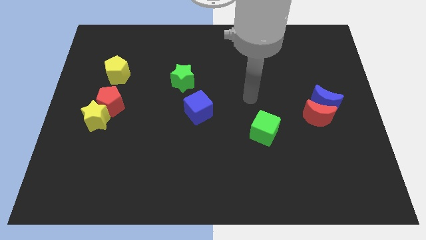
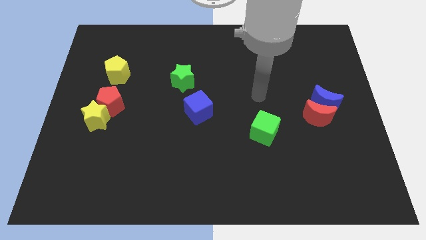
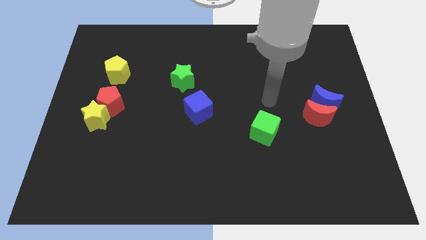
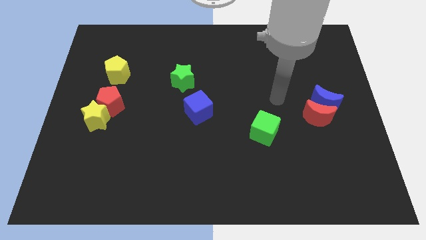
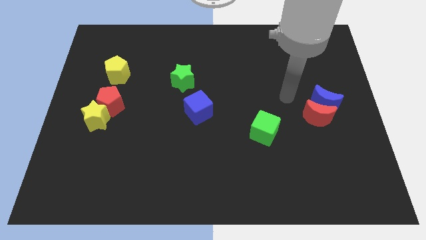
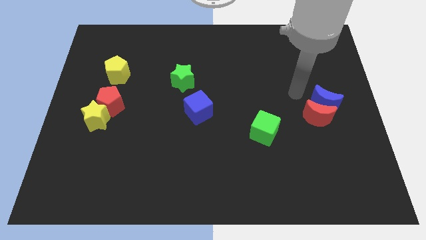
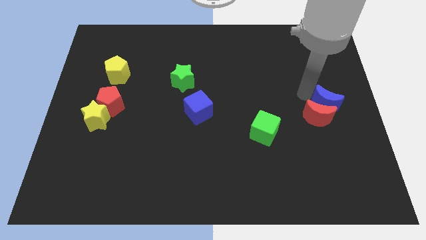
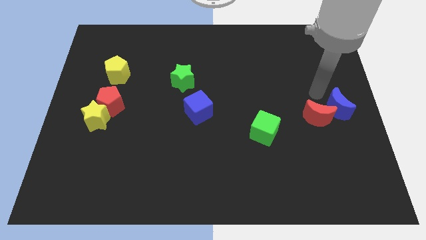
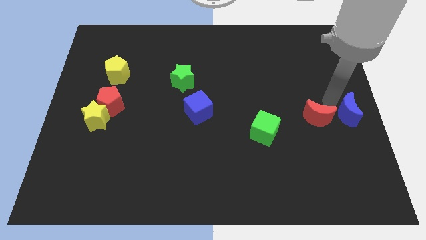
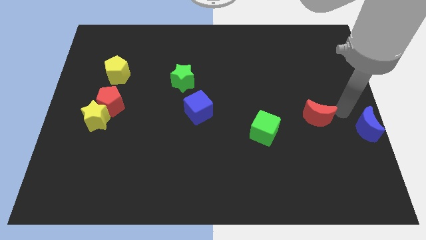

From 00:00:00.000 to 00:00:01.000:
separate the red moon from the blue moon

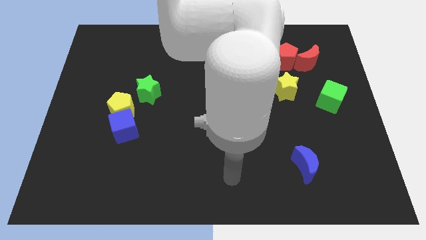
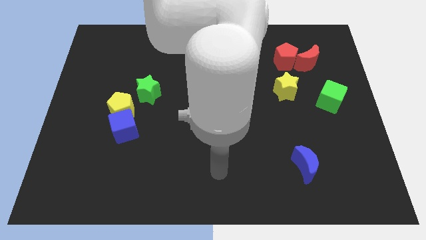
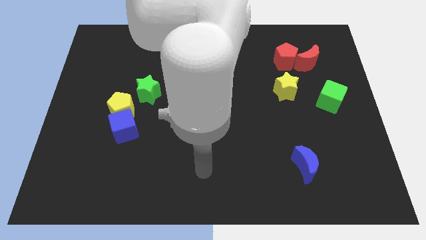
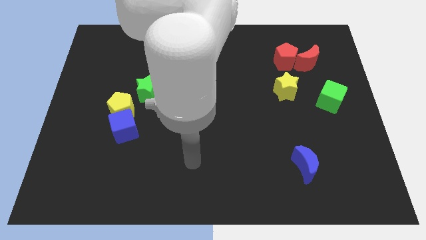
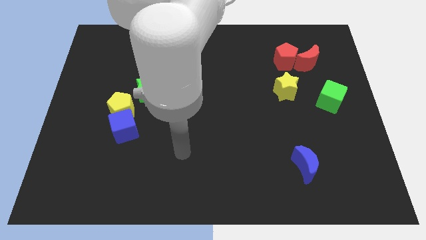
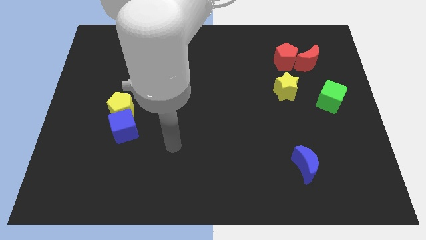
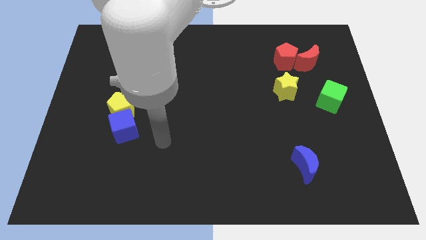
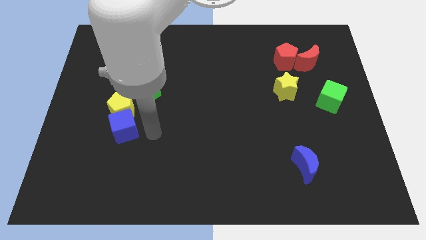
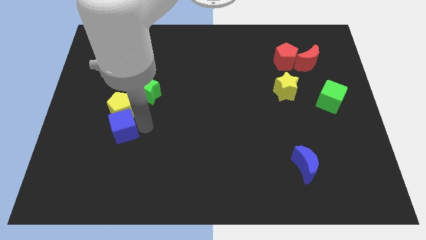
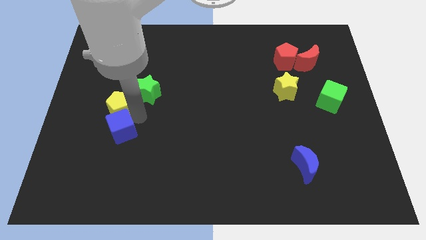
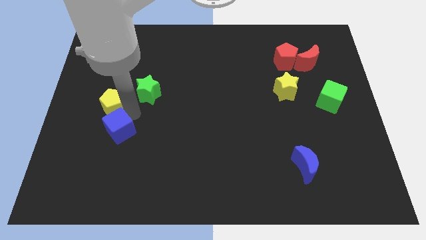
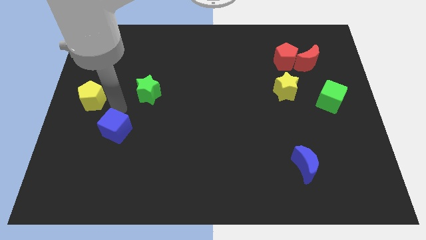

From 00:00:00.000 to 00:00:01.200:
separate the blue cube from the yellow pentagon

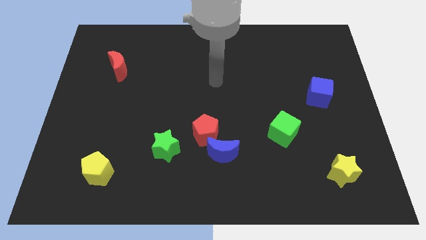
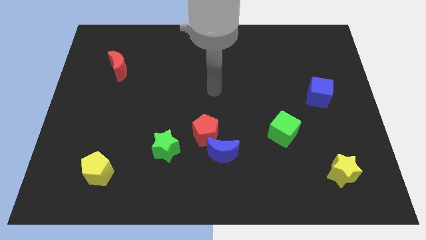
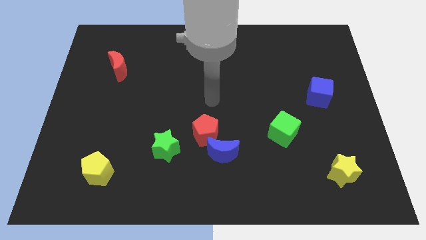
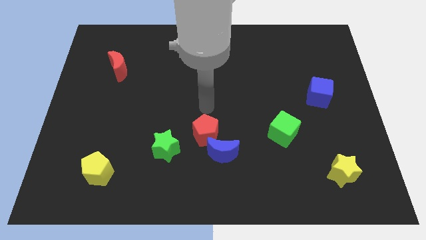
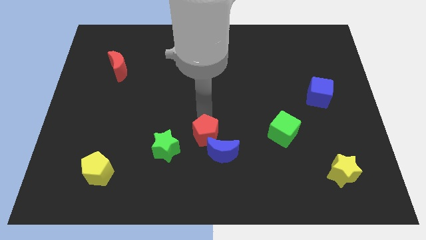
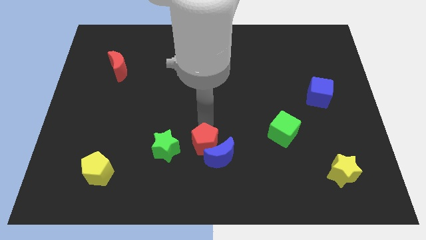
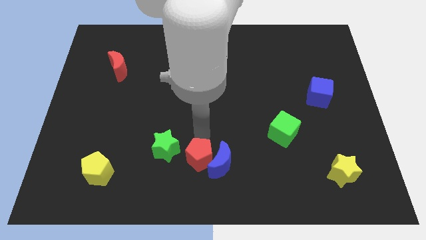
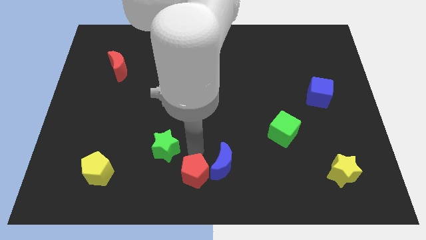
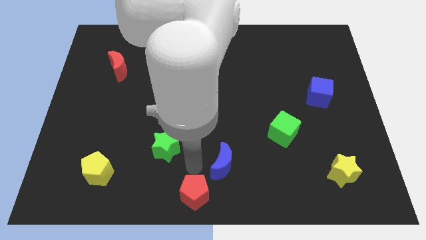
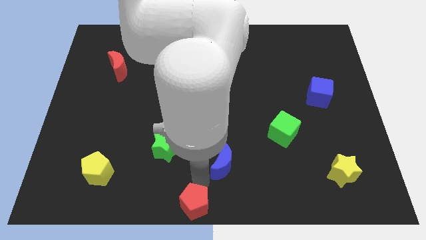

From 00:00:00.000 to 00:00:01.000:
move the blue moon away from the red pentagon

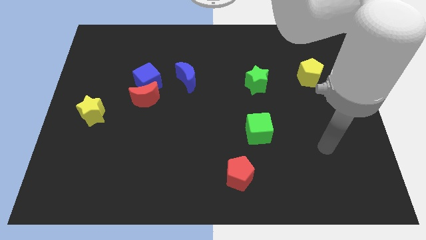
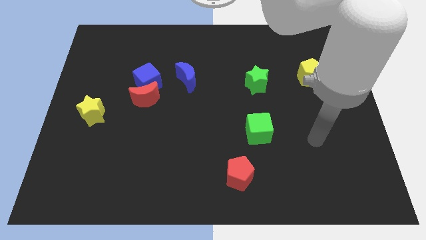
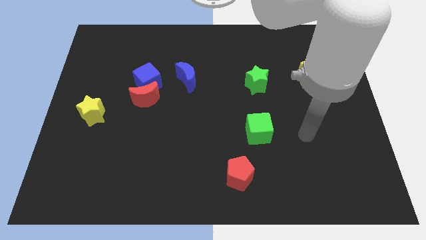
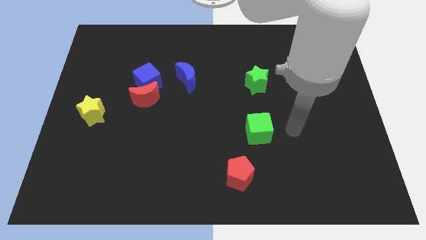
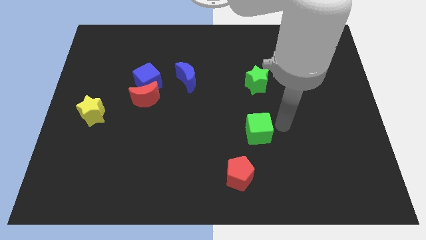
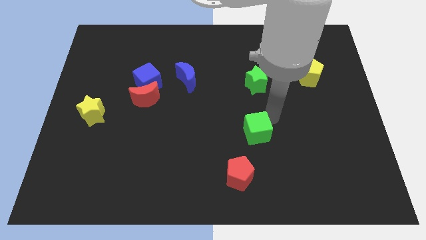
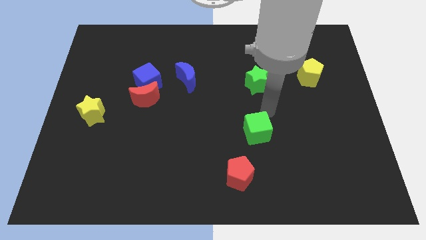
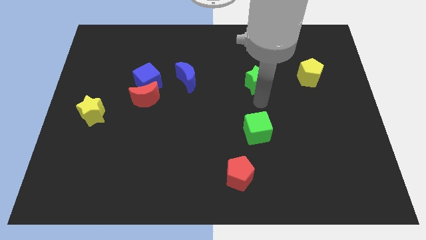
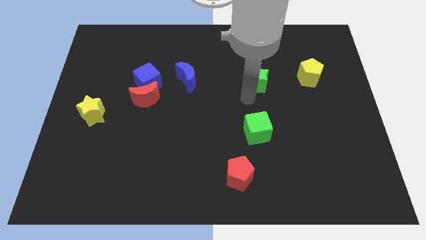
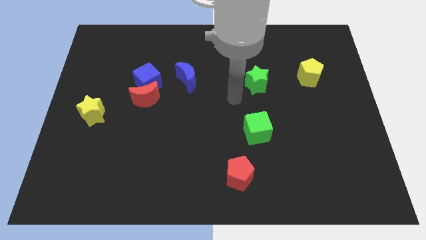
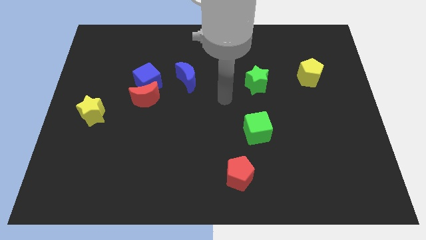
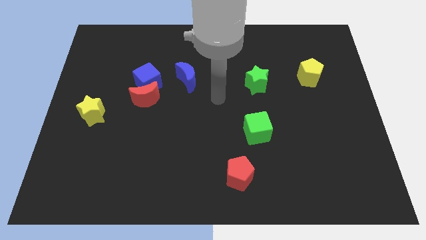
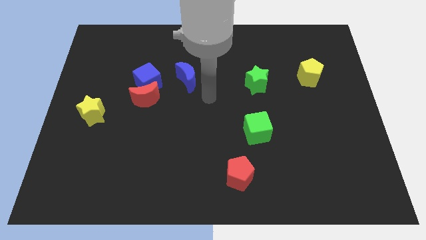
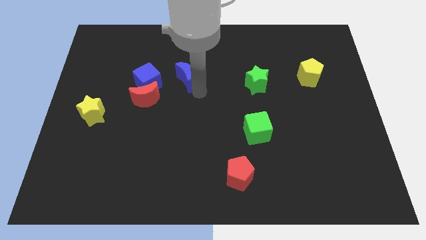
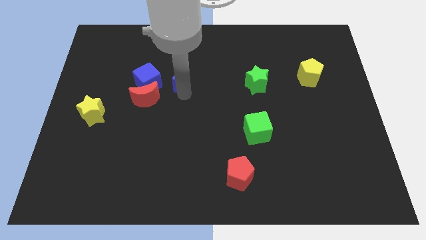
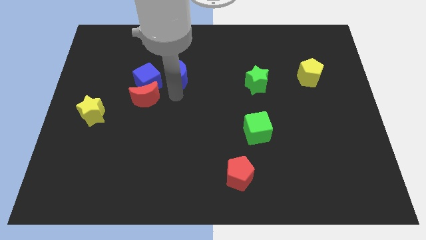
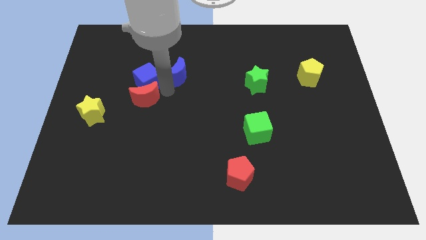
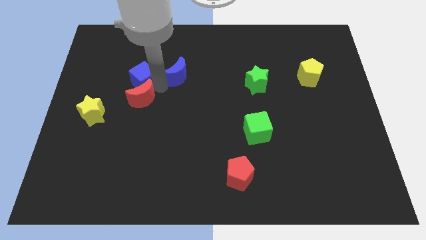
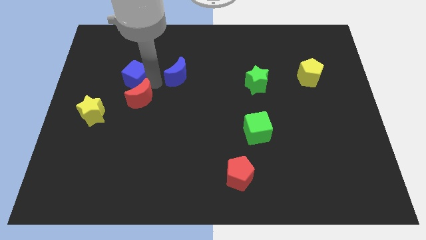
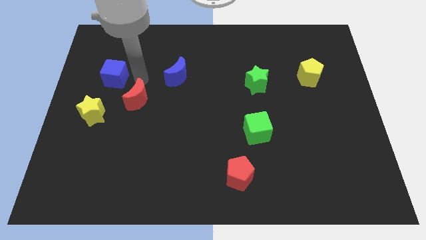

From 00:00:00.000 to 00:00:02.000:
separate the red moon from the blue cube

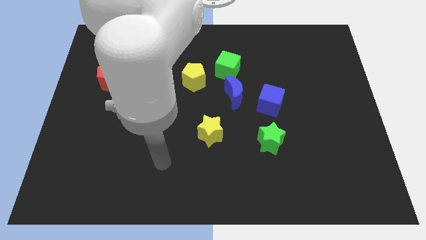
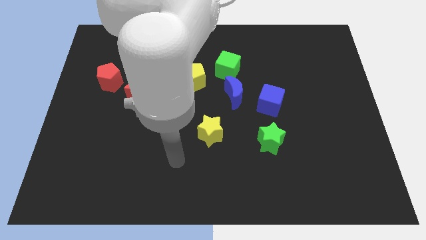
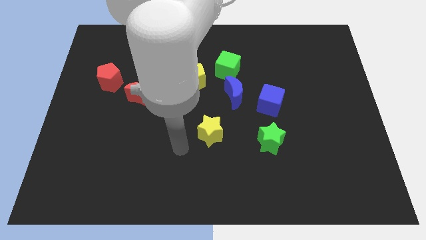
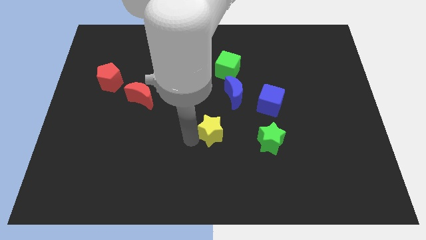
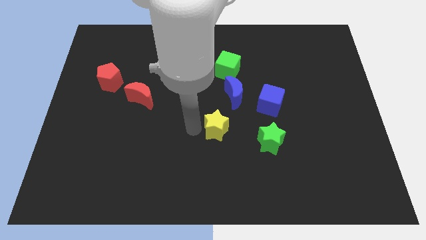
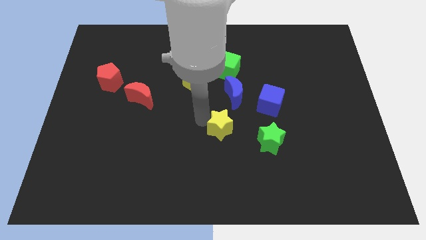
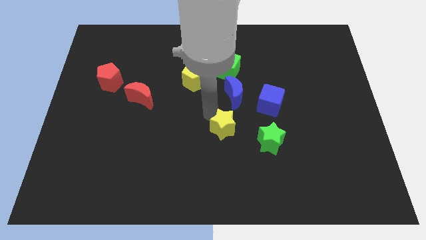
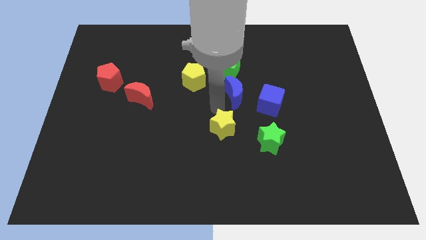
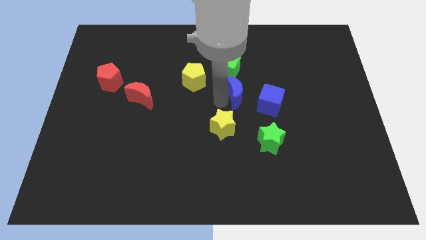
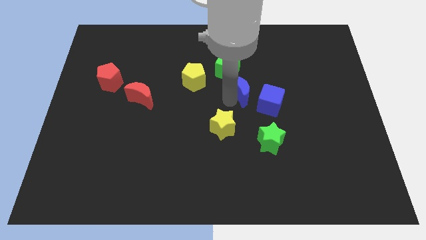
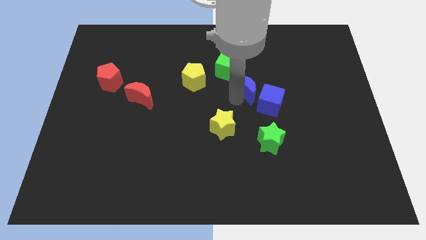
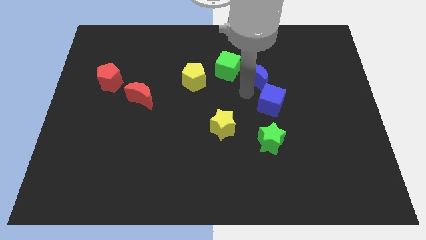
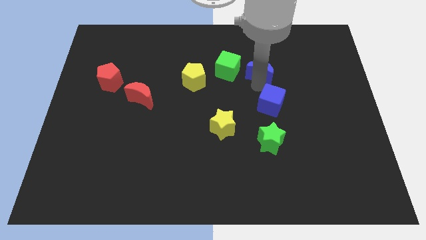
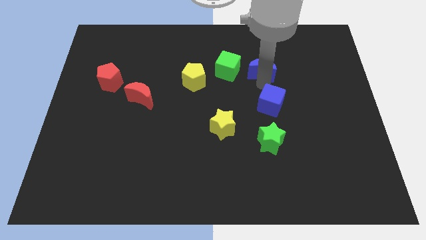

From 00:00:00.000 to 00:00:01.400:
move the blue cube away from the blue moon

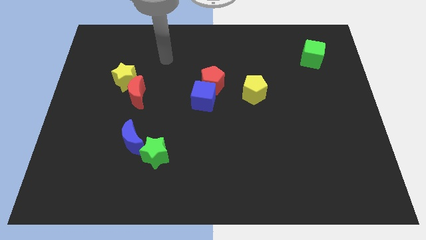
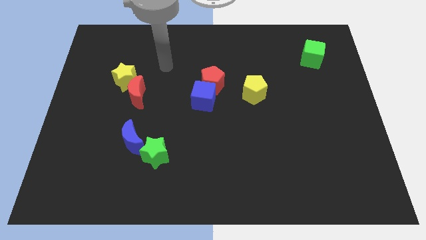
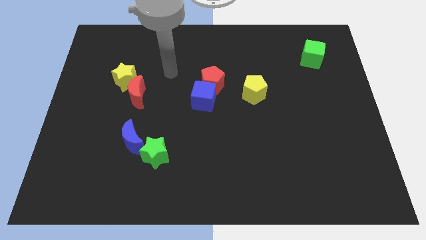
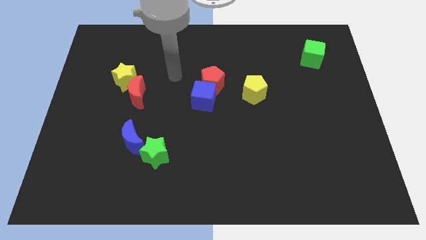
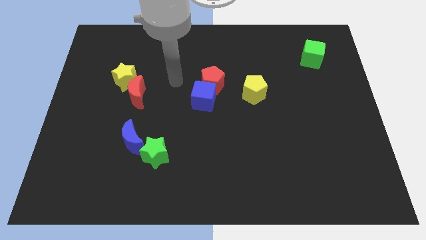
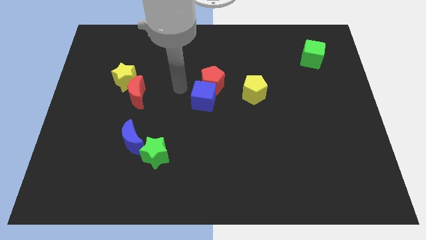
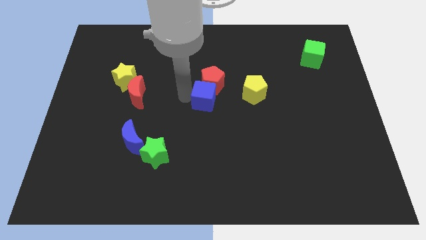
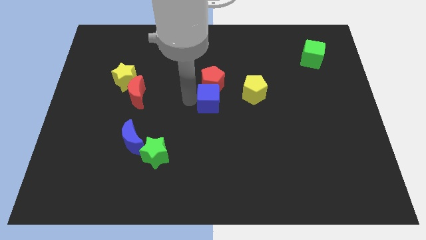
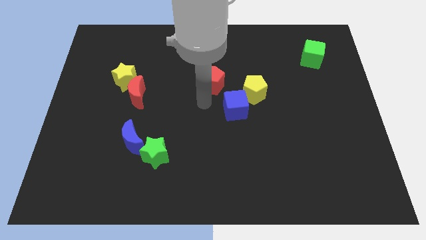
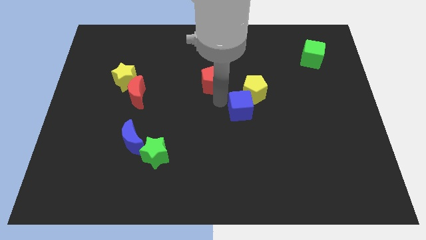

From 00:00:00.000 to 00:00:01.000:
move the red pentagon away from the blue cube

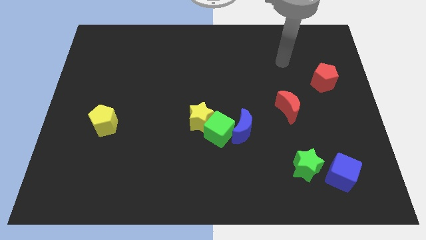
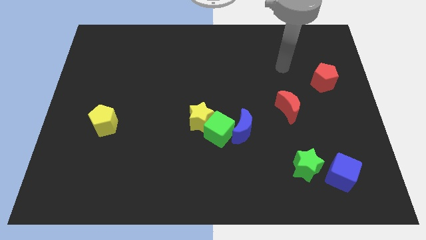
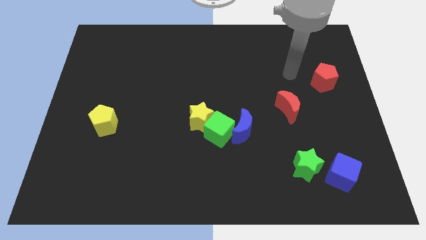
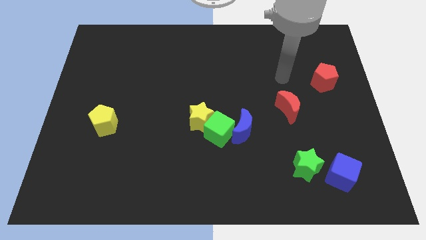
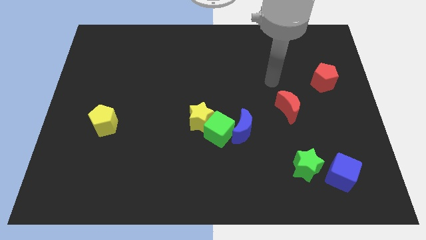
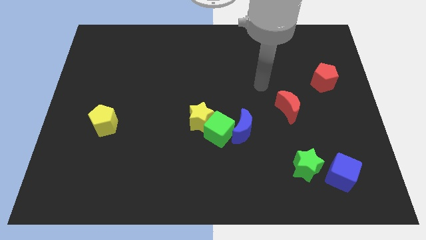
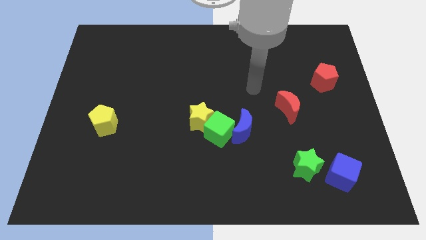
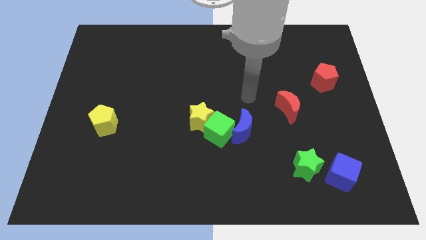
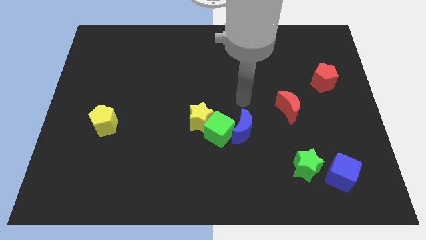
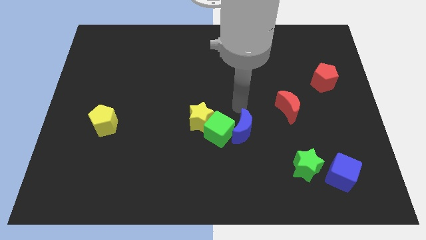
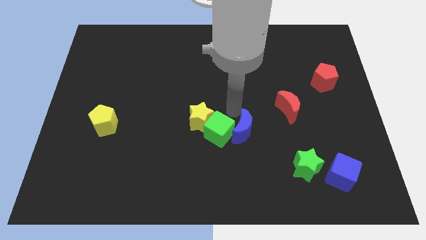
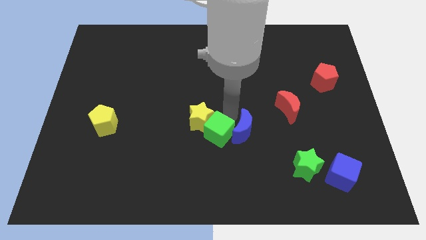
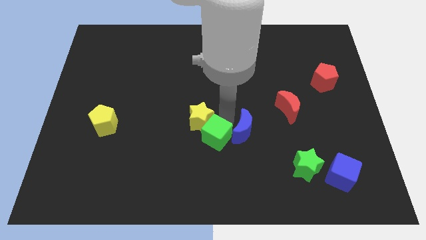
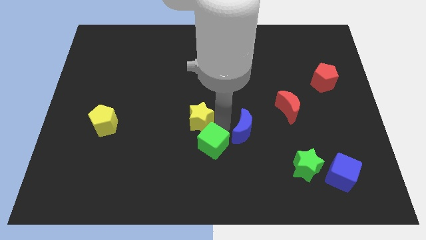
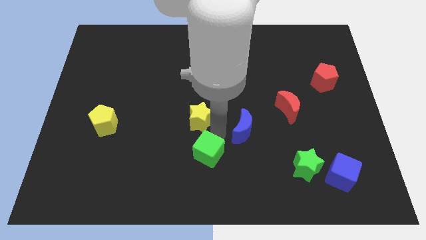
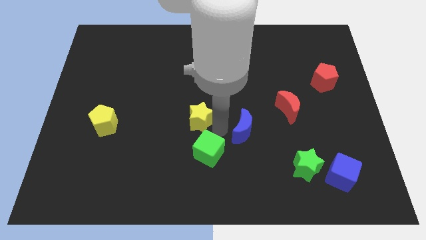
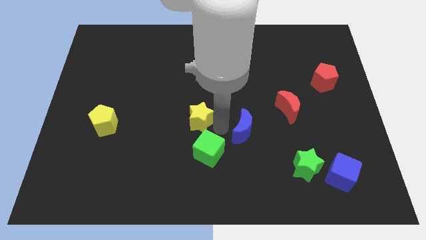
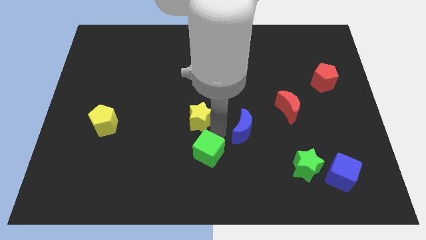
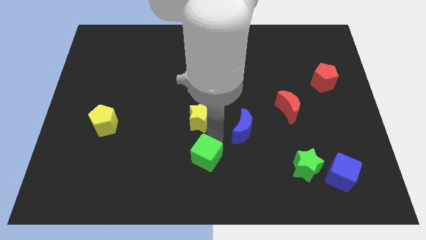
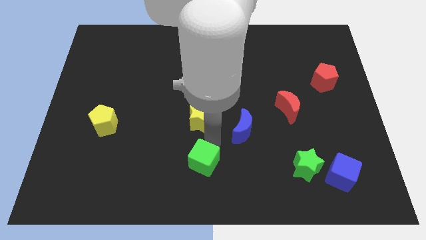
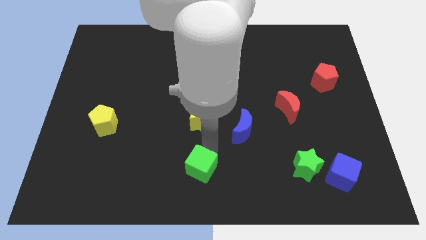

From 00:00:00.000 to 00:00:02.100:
move the green cube away from the yellow star and blue moon
